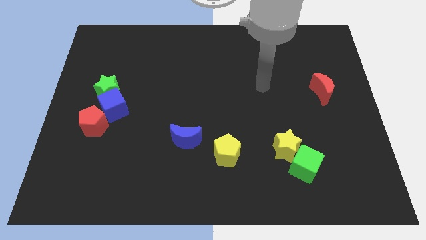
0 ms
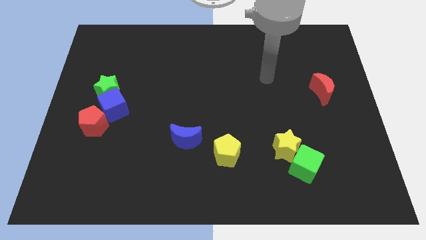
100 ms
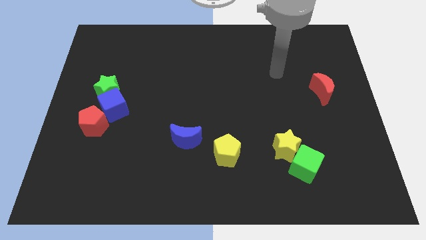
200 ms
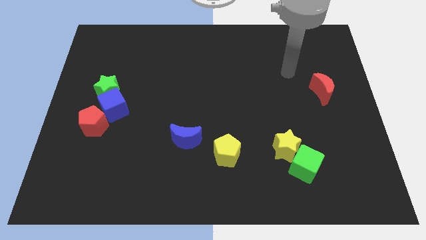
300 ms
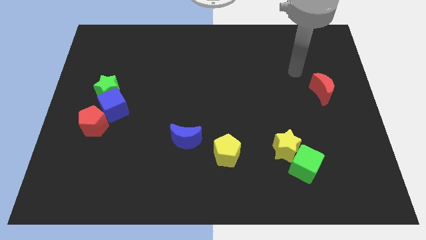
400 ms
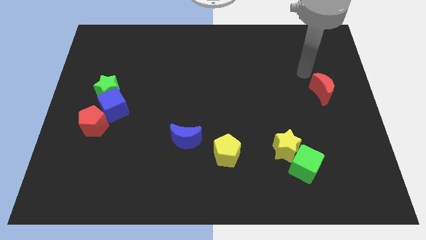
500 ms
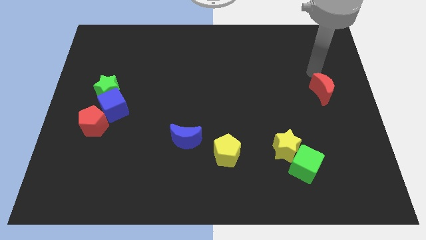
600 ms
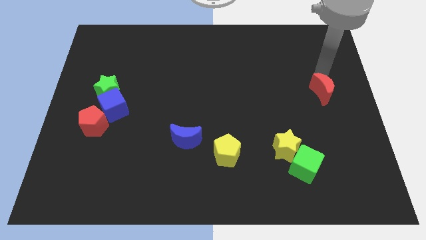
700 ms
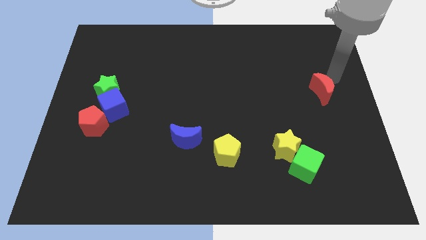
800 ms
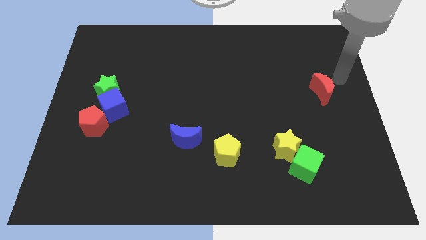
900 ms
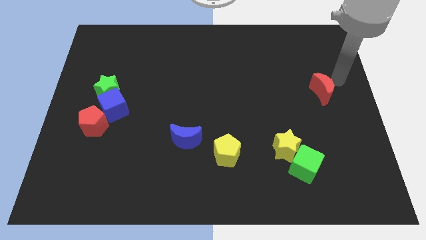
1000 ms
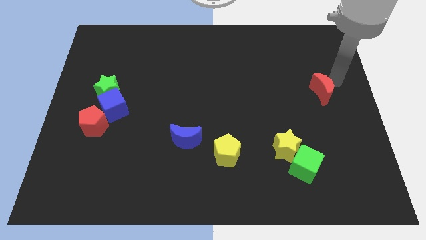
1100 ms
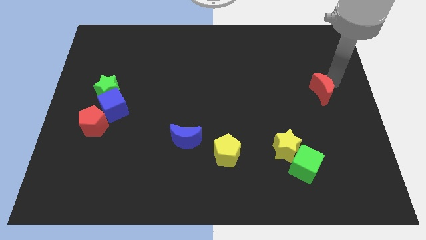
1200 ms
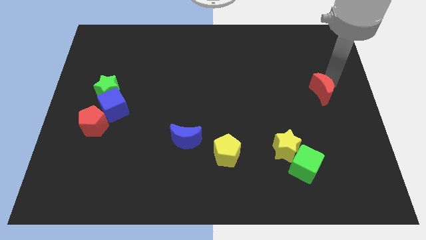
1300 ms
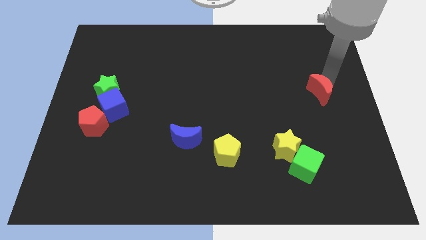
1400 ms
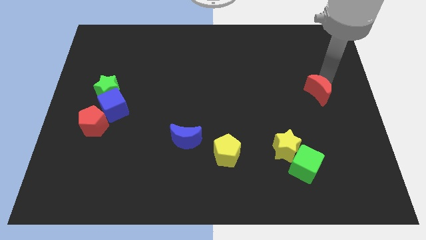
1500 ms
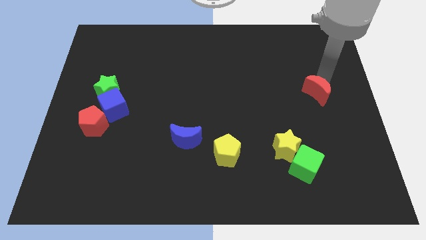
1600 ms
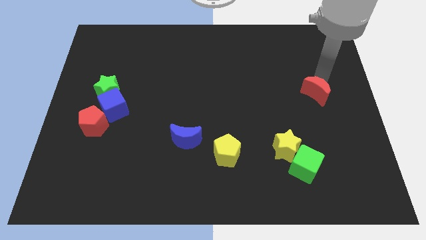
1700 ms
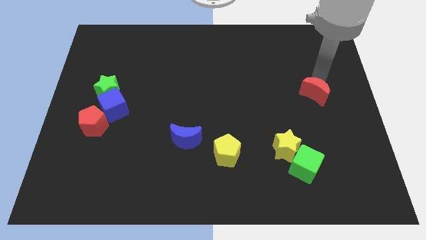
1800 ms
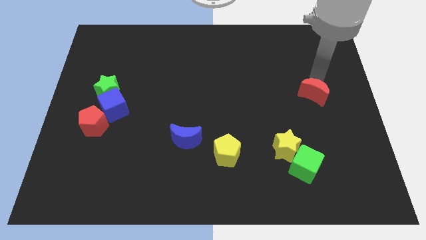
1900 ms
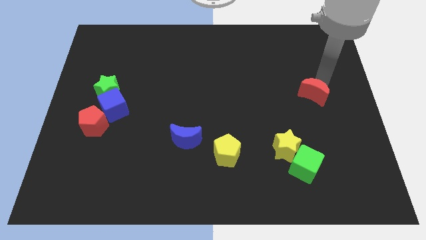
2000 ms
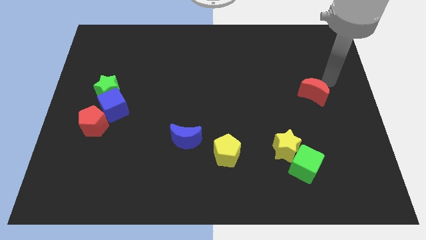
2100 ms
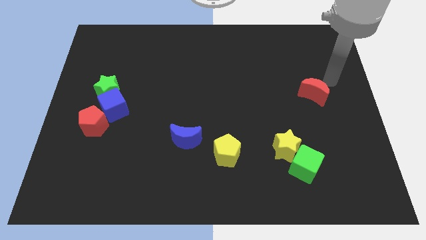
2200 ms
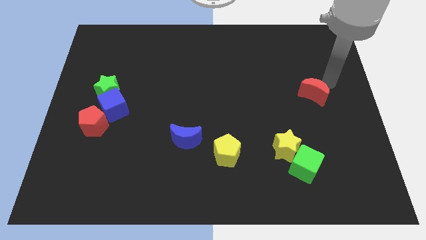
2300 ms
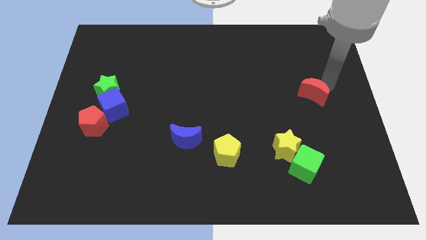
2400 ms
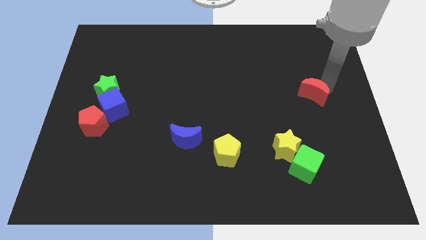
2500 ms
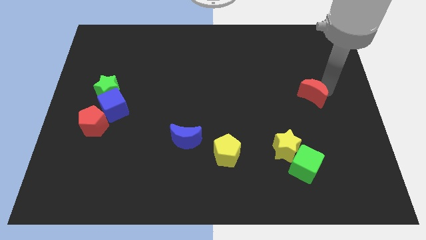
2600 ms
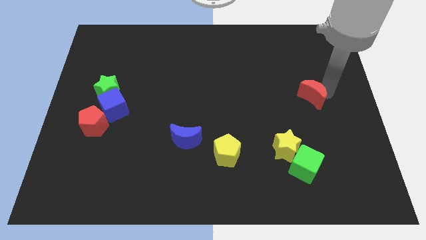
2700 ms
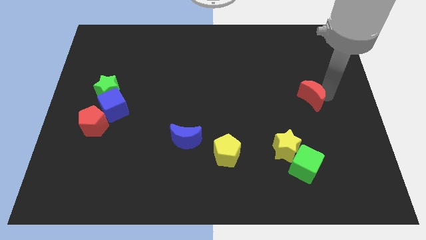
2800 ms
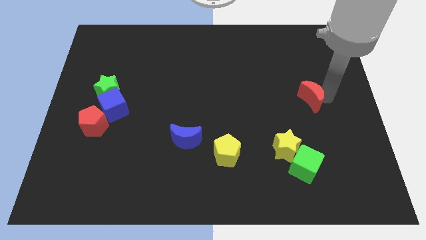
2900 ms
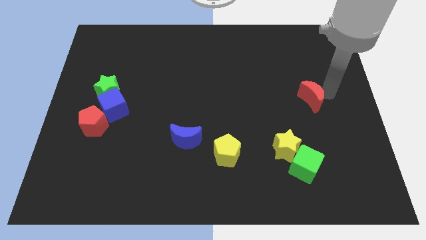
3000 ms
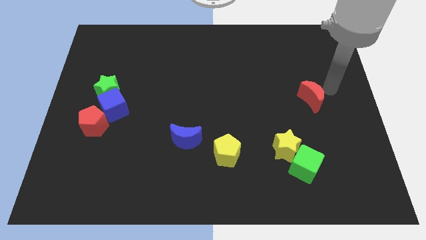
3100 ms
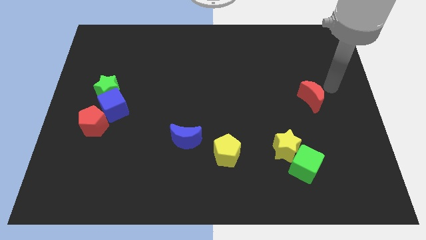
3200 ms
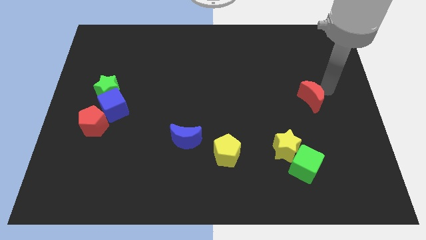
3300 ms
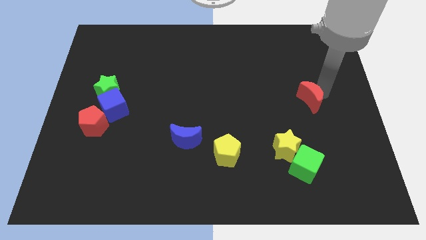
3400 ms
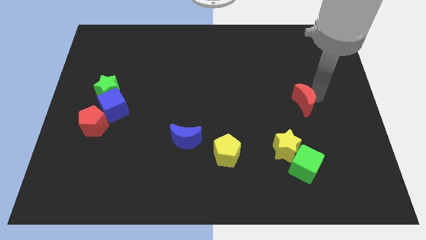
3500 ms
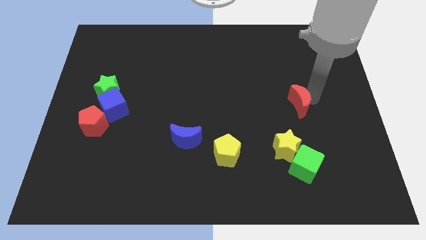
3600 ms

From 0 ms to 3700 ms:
slightly slide the red moon downwards and left diagonally

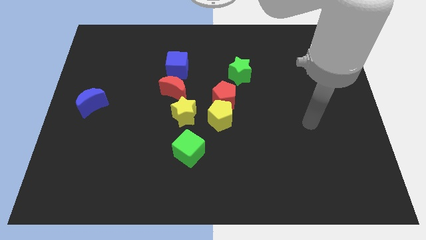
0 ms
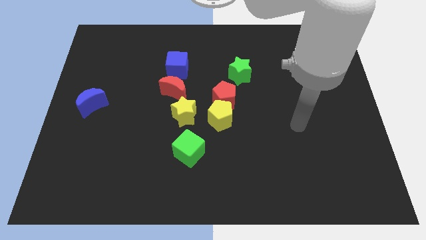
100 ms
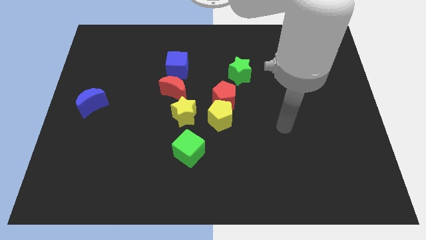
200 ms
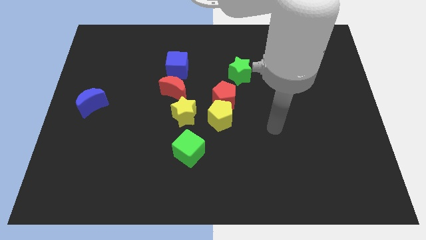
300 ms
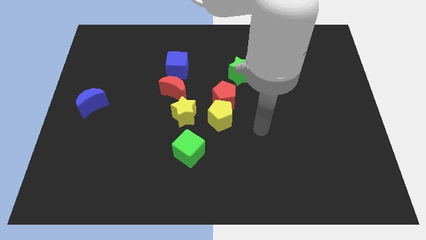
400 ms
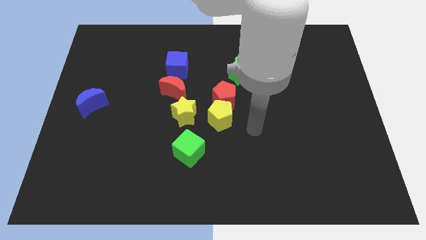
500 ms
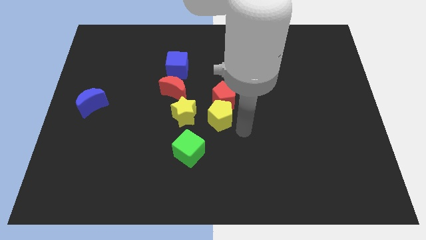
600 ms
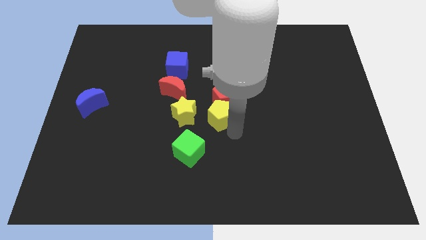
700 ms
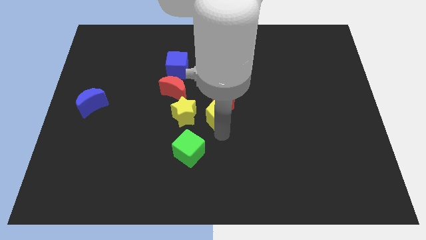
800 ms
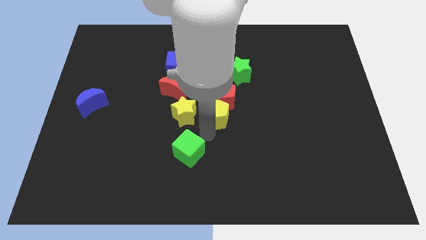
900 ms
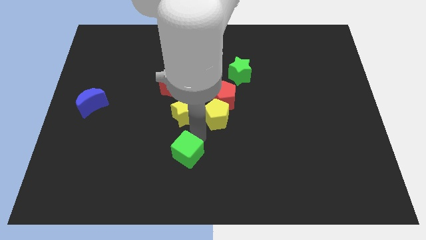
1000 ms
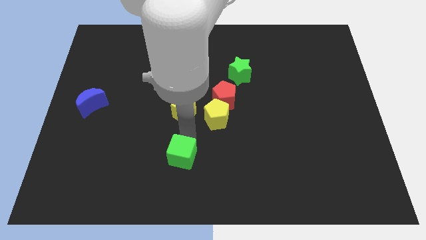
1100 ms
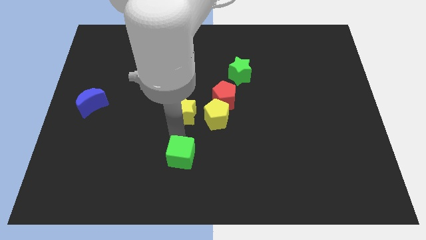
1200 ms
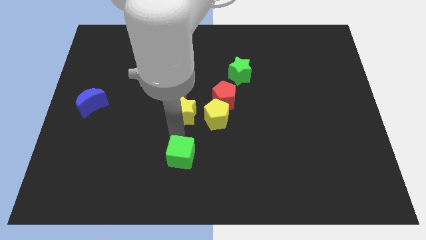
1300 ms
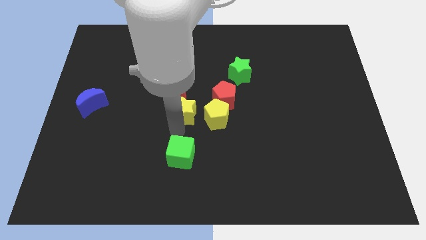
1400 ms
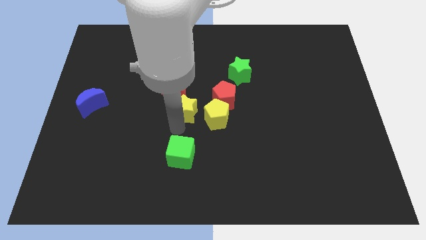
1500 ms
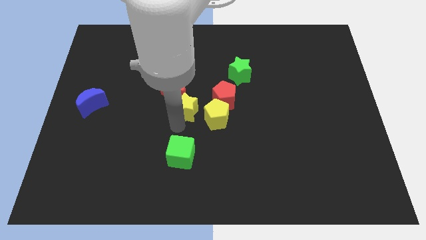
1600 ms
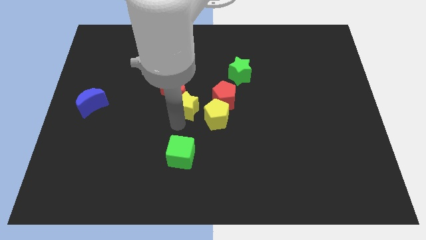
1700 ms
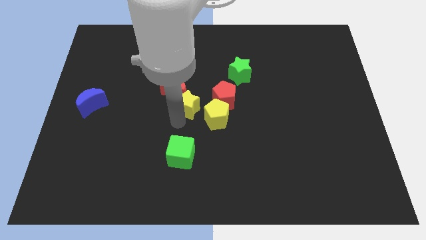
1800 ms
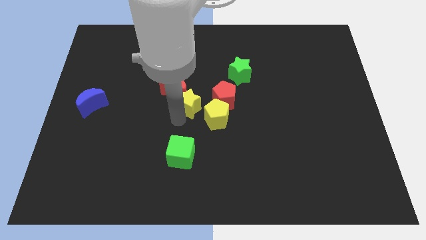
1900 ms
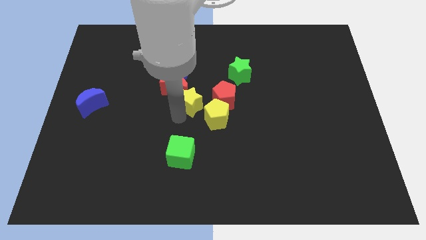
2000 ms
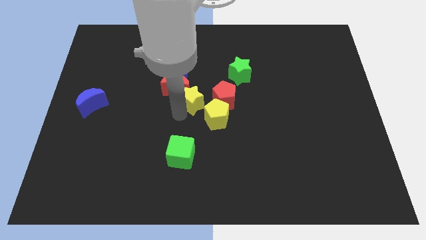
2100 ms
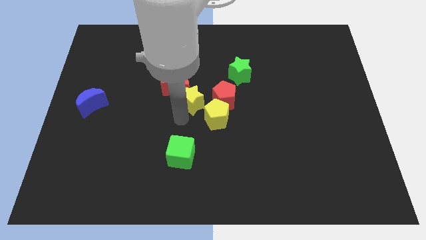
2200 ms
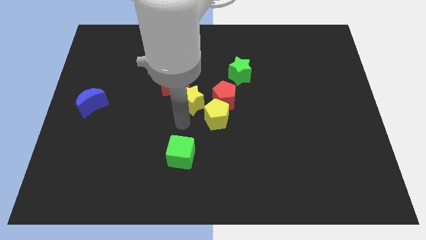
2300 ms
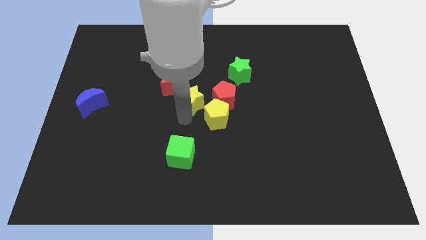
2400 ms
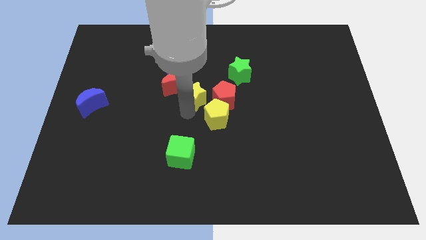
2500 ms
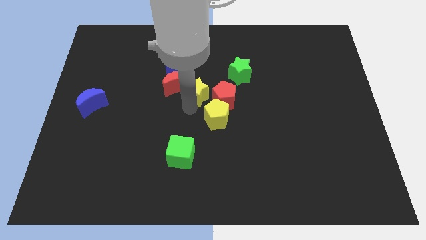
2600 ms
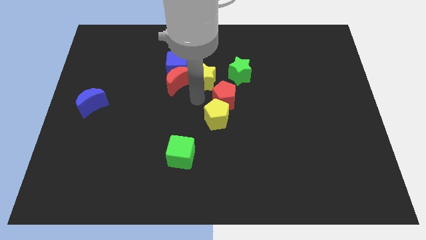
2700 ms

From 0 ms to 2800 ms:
slightly push the yellow star up

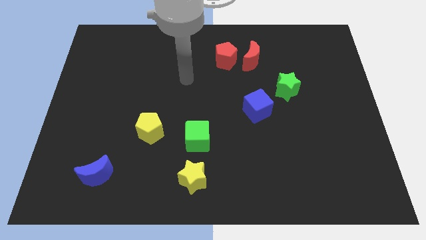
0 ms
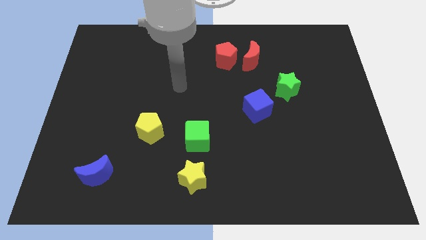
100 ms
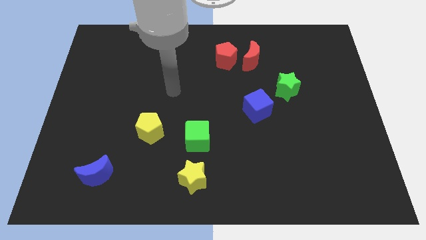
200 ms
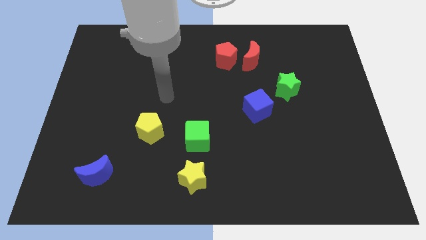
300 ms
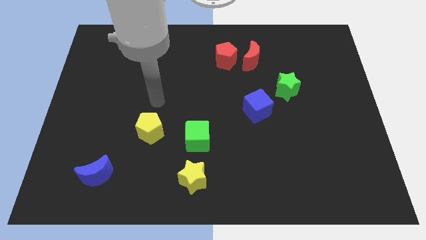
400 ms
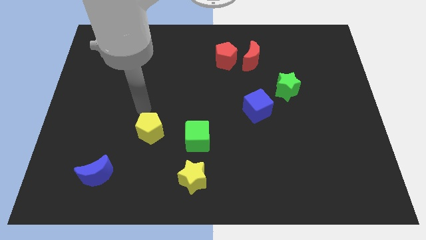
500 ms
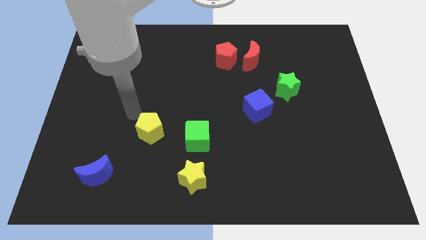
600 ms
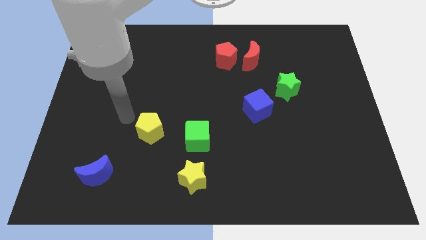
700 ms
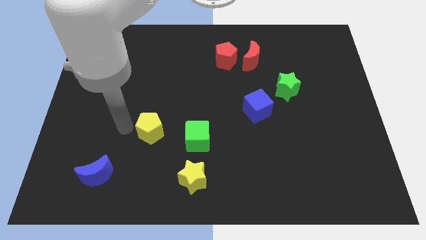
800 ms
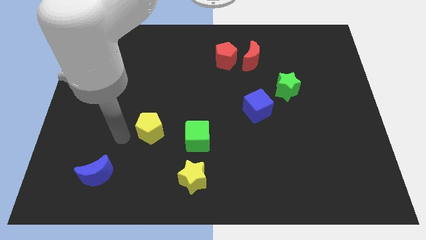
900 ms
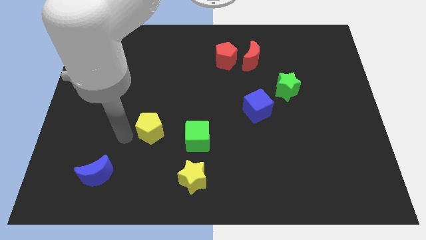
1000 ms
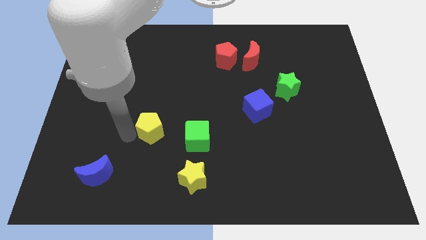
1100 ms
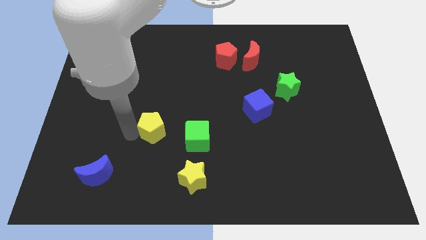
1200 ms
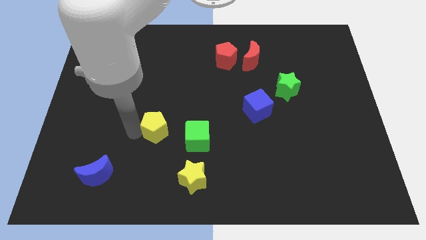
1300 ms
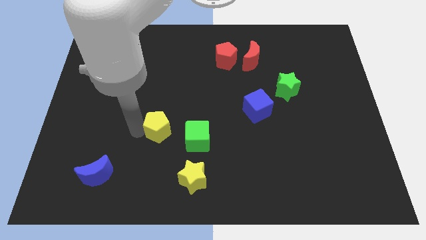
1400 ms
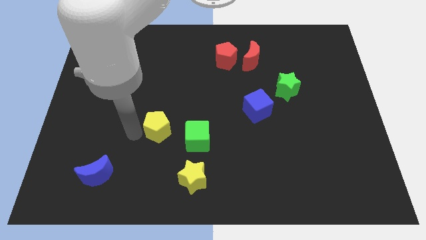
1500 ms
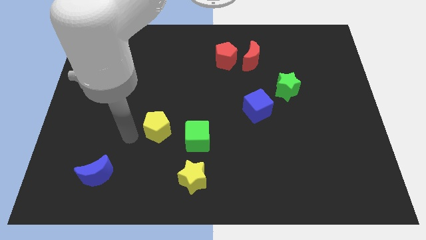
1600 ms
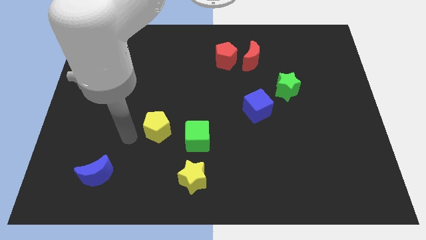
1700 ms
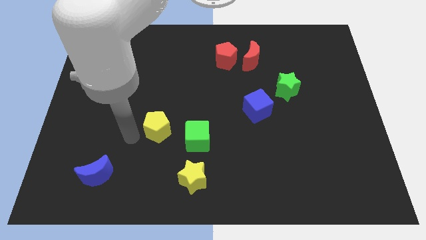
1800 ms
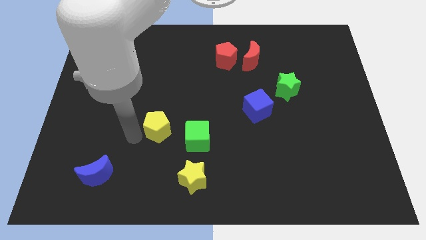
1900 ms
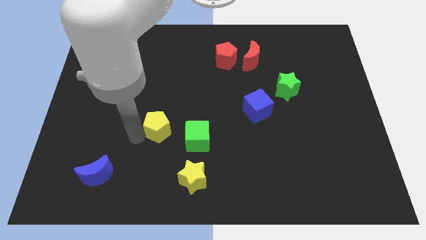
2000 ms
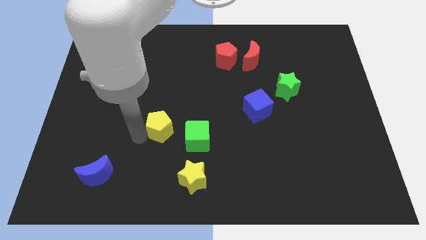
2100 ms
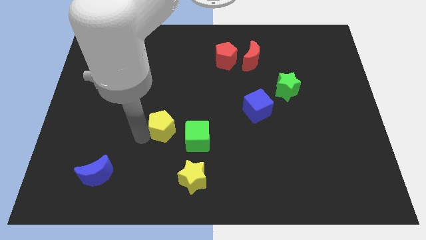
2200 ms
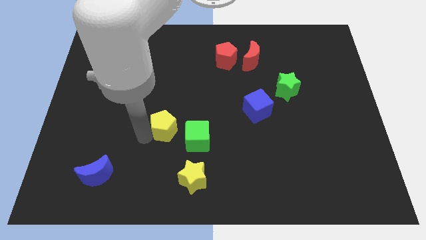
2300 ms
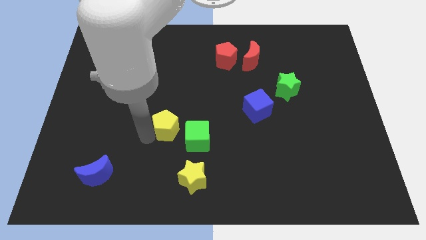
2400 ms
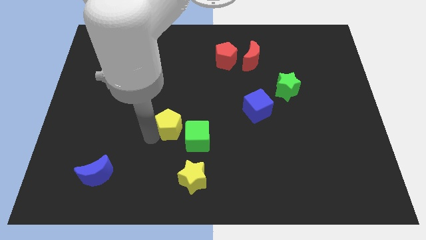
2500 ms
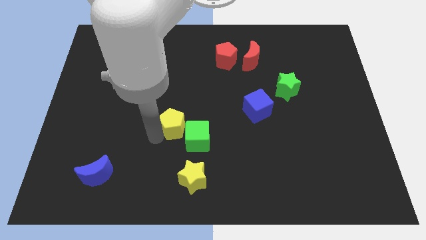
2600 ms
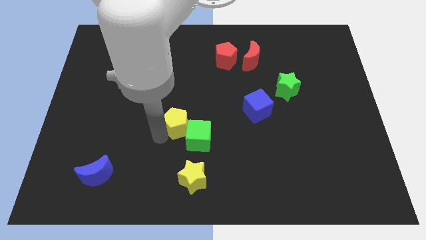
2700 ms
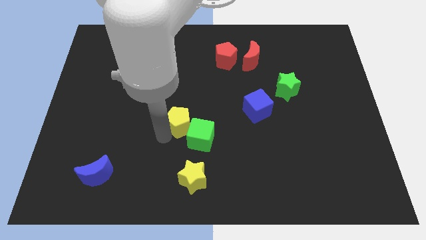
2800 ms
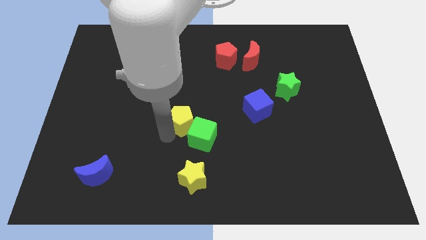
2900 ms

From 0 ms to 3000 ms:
slightly push the yellow pentagon right
